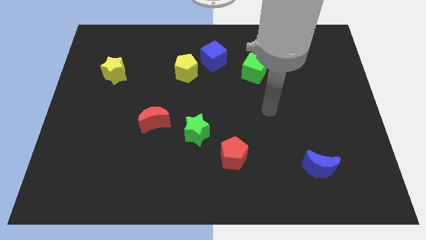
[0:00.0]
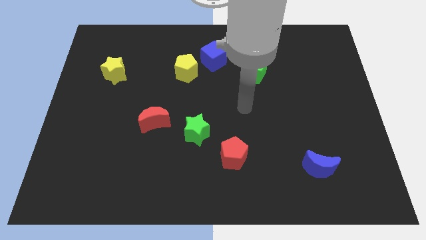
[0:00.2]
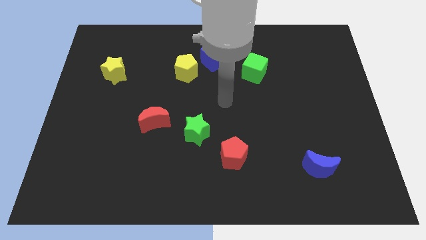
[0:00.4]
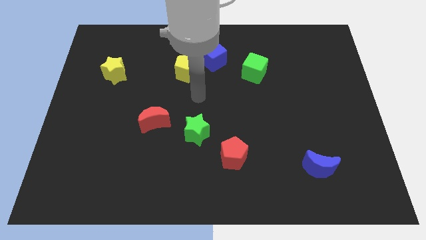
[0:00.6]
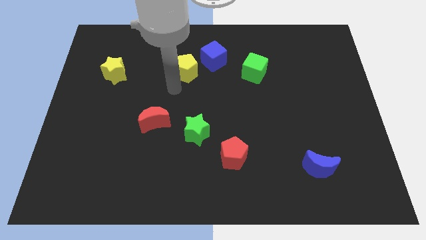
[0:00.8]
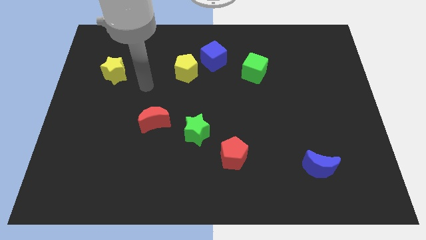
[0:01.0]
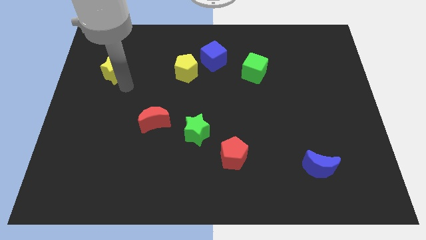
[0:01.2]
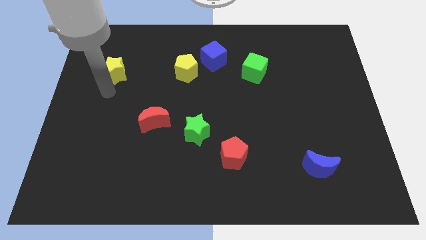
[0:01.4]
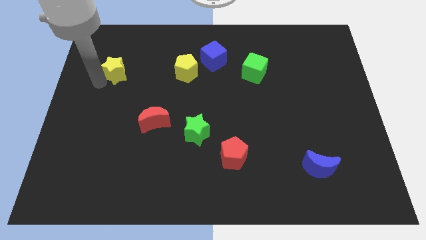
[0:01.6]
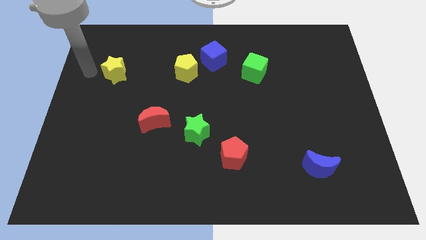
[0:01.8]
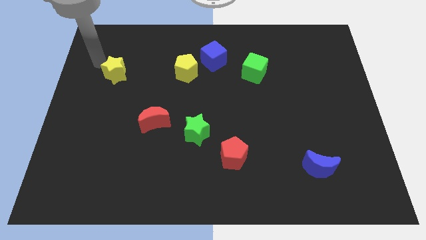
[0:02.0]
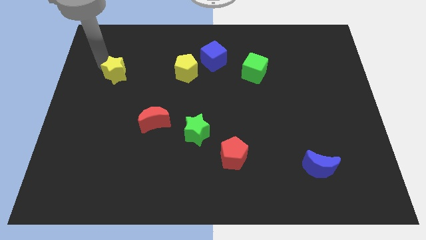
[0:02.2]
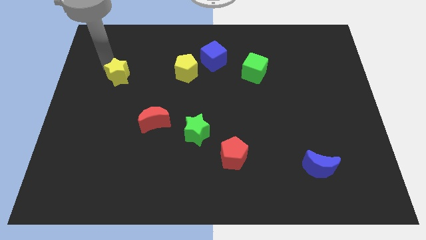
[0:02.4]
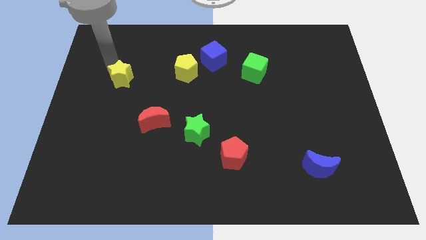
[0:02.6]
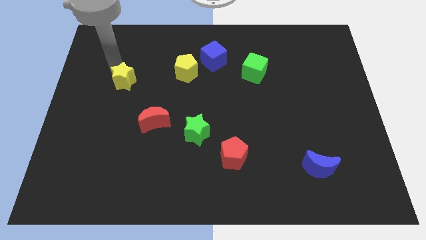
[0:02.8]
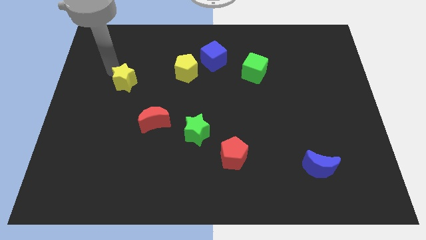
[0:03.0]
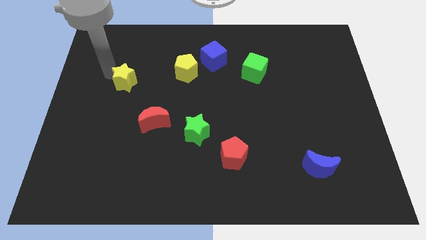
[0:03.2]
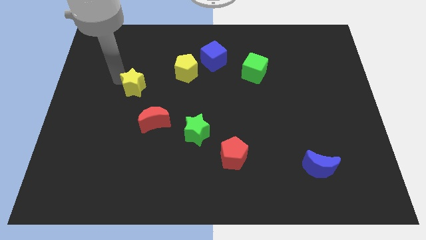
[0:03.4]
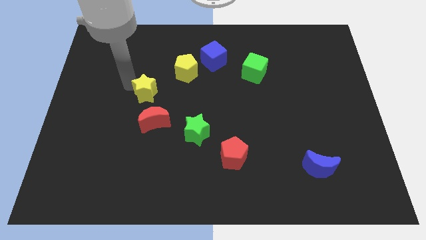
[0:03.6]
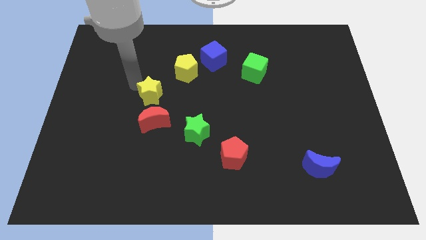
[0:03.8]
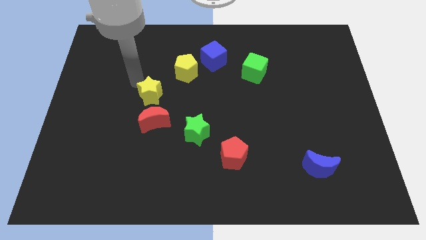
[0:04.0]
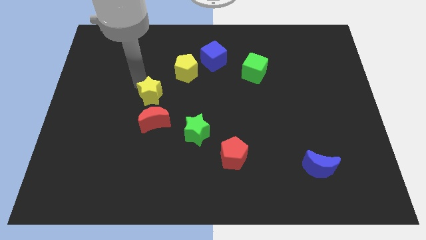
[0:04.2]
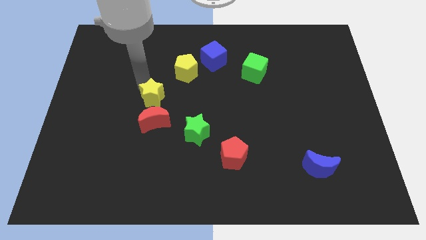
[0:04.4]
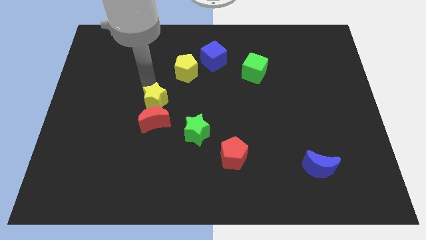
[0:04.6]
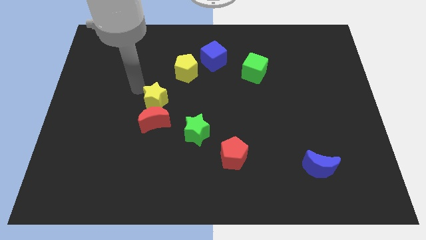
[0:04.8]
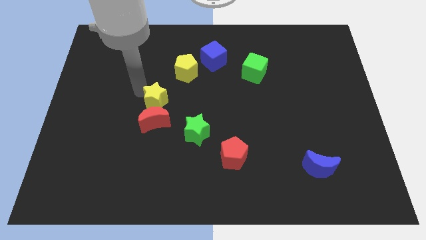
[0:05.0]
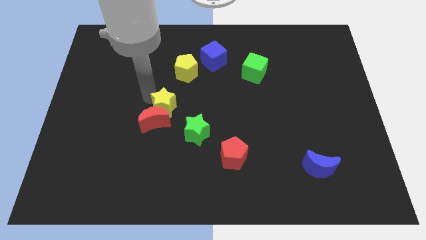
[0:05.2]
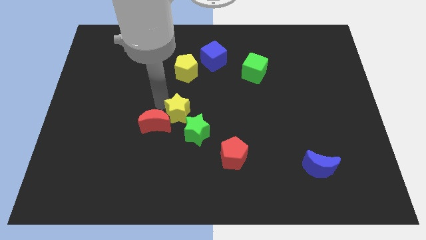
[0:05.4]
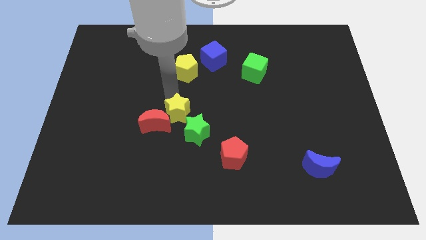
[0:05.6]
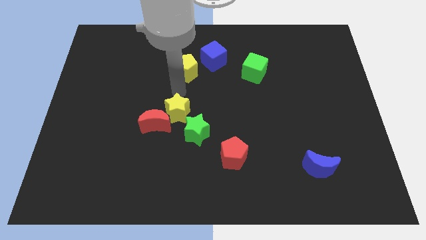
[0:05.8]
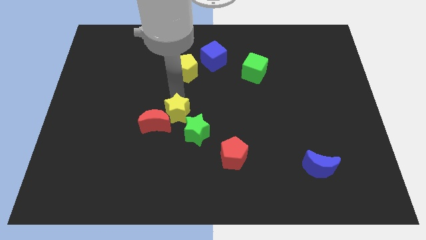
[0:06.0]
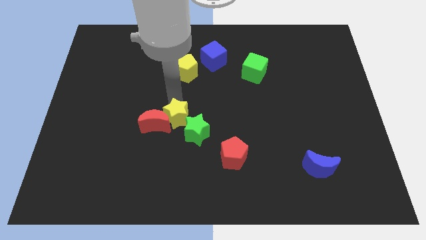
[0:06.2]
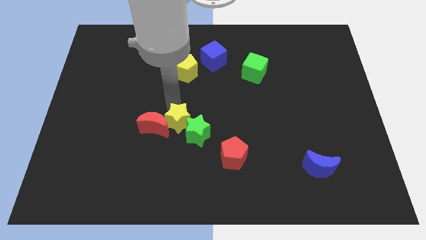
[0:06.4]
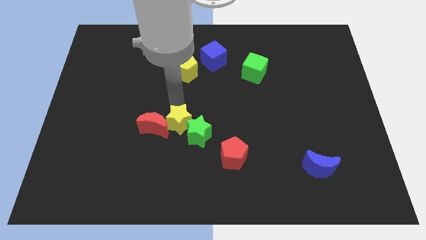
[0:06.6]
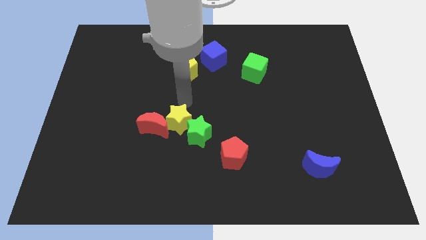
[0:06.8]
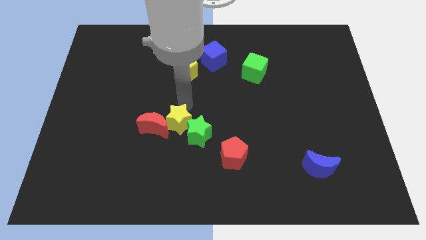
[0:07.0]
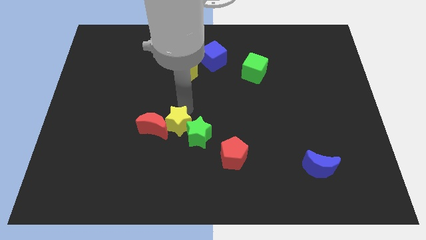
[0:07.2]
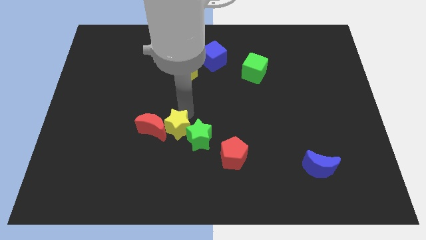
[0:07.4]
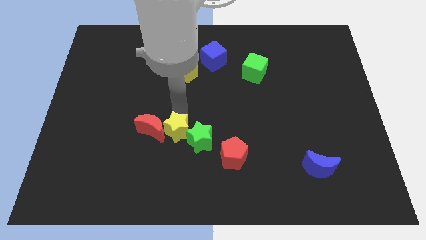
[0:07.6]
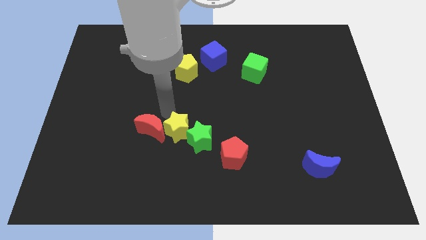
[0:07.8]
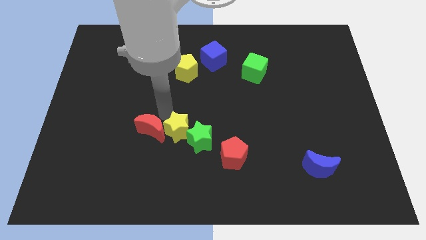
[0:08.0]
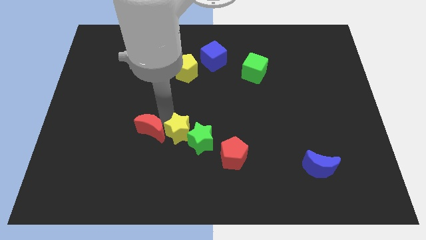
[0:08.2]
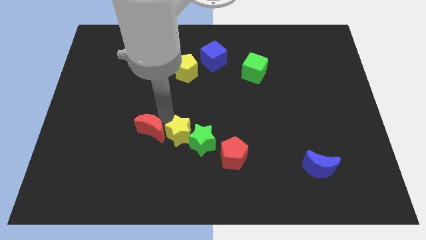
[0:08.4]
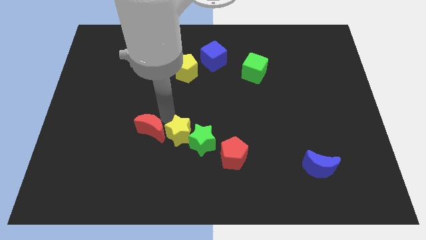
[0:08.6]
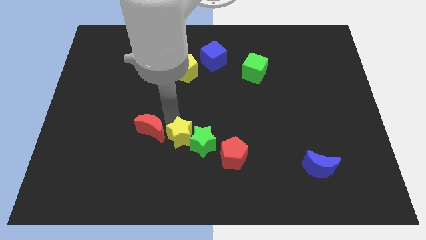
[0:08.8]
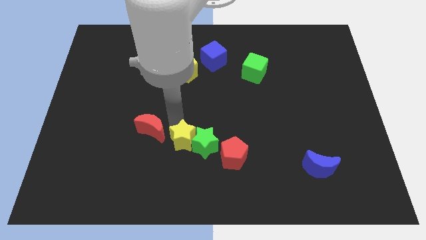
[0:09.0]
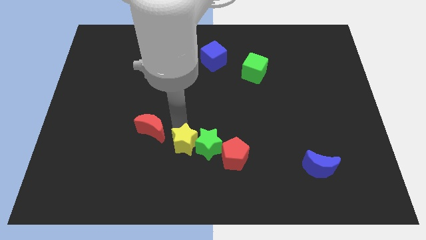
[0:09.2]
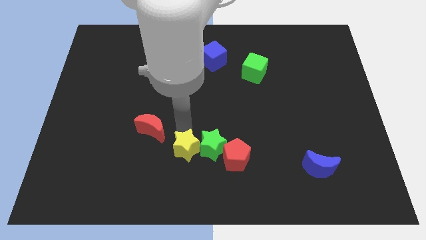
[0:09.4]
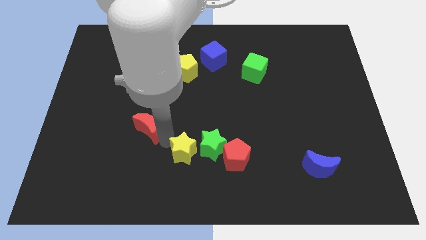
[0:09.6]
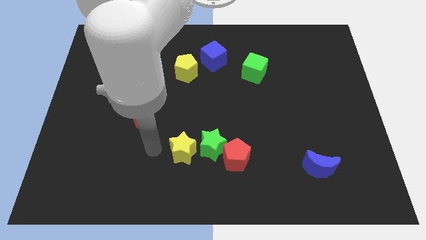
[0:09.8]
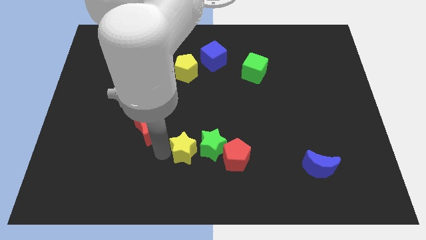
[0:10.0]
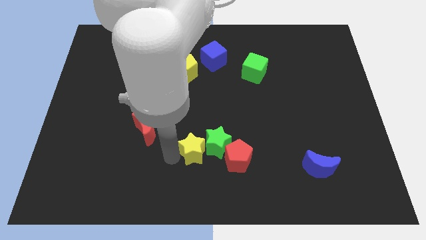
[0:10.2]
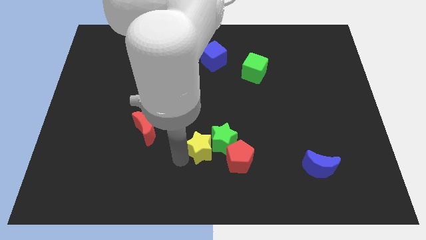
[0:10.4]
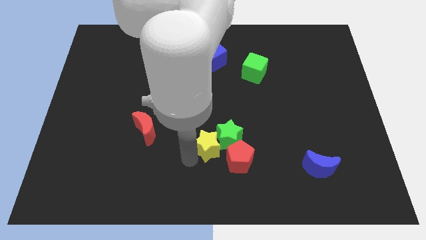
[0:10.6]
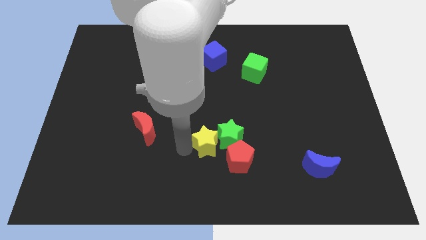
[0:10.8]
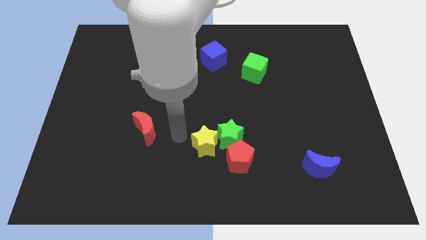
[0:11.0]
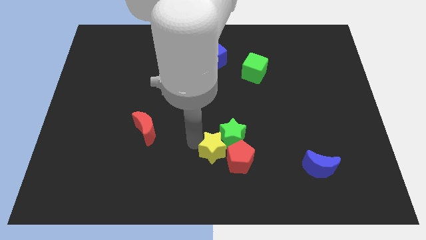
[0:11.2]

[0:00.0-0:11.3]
put the yellow star close to the red pentagon

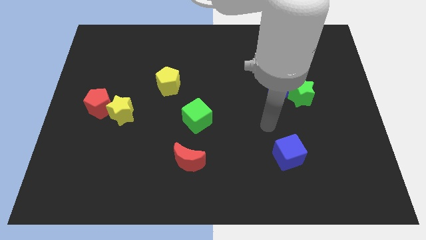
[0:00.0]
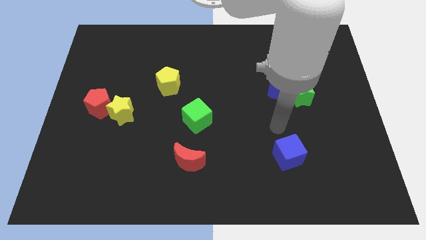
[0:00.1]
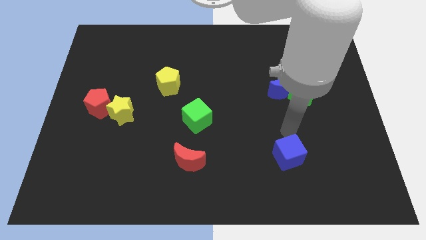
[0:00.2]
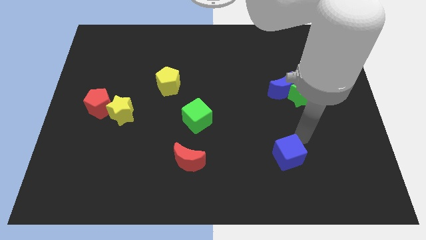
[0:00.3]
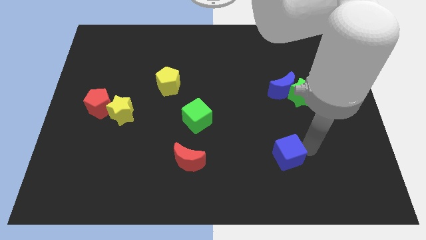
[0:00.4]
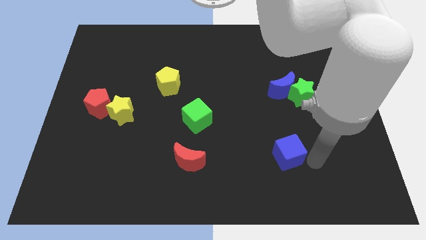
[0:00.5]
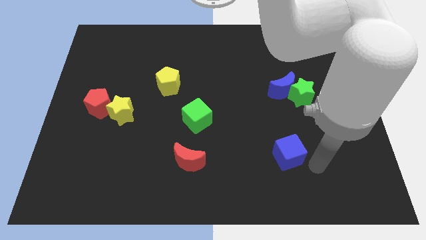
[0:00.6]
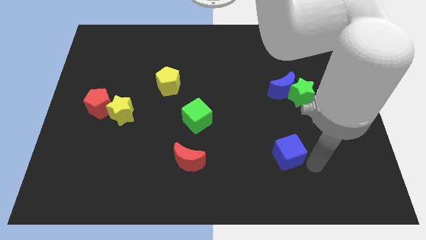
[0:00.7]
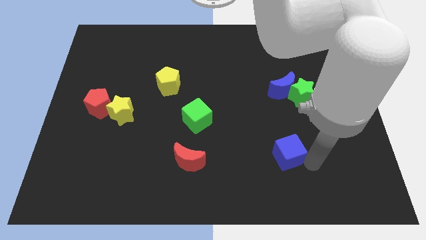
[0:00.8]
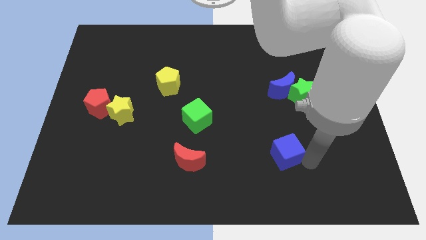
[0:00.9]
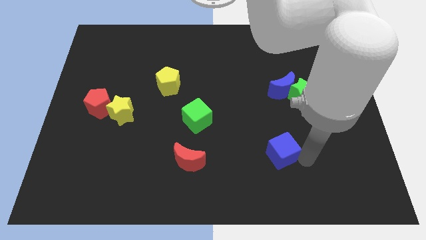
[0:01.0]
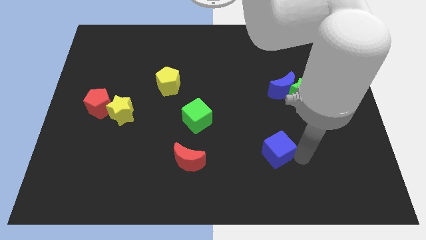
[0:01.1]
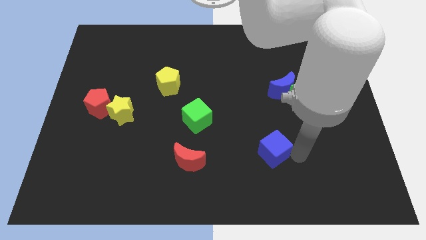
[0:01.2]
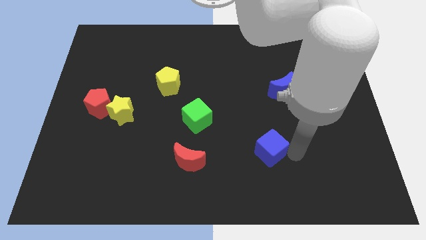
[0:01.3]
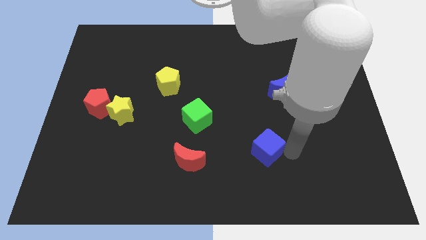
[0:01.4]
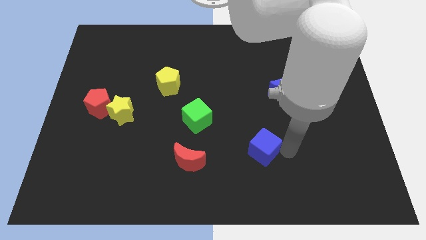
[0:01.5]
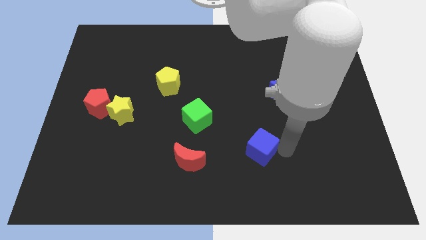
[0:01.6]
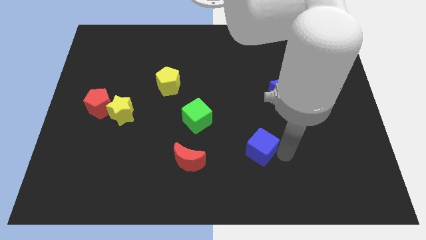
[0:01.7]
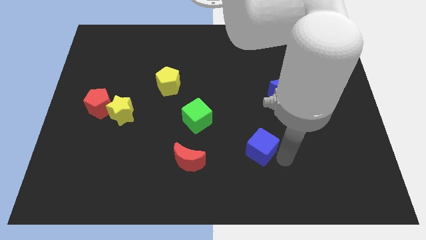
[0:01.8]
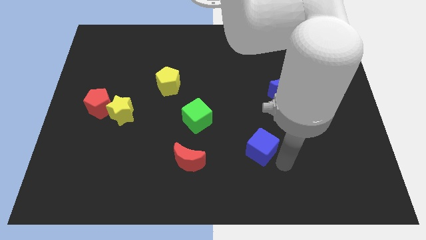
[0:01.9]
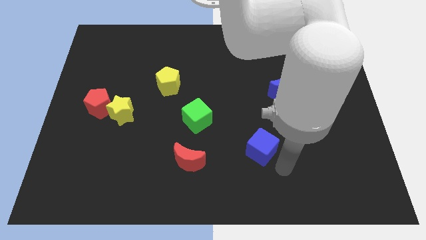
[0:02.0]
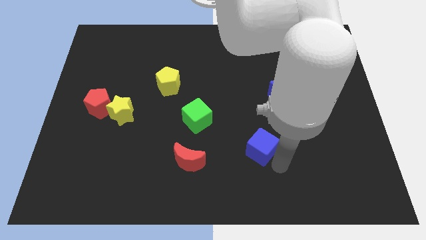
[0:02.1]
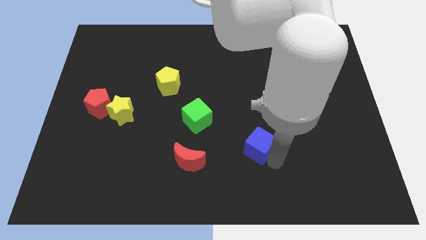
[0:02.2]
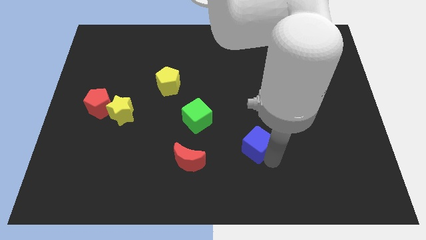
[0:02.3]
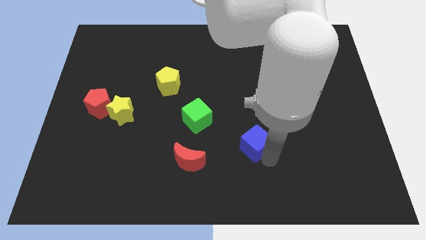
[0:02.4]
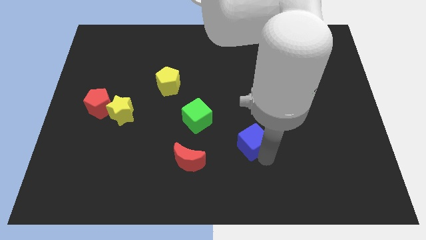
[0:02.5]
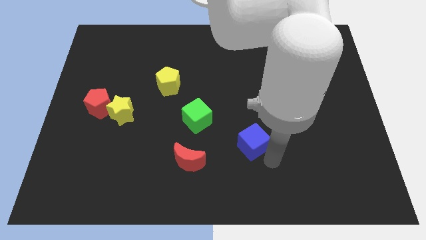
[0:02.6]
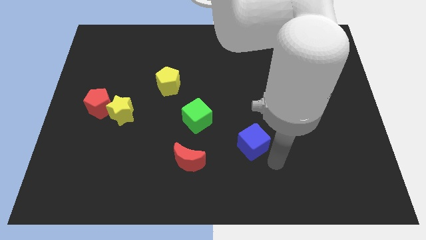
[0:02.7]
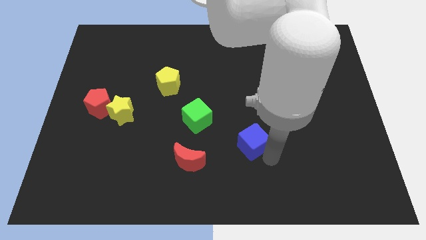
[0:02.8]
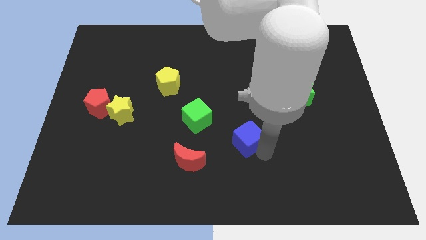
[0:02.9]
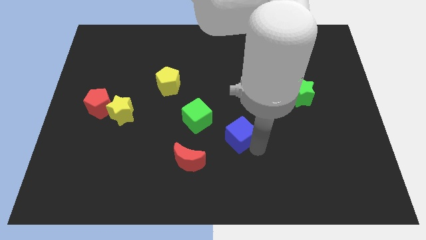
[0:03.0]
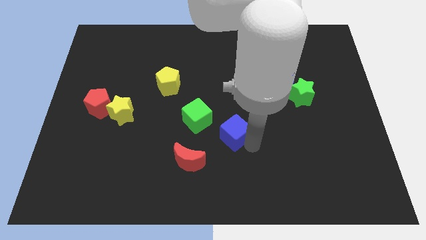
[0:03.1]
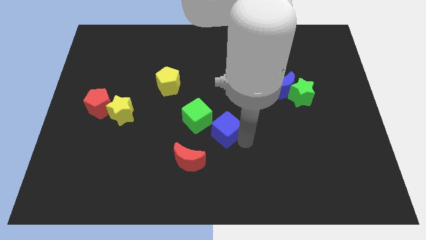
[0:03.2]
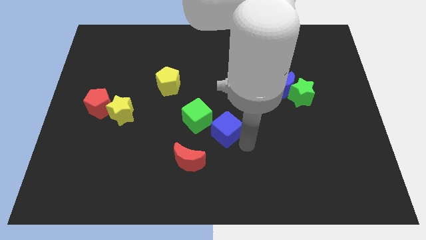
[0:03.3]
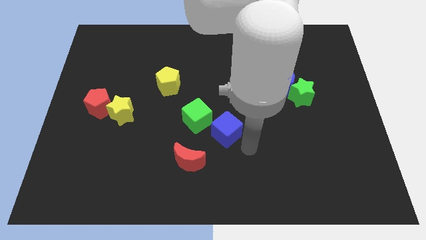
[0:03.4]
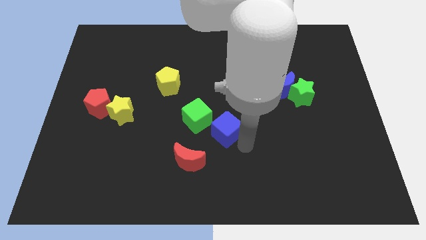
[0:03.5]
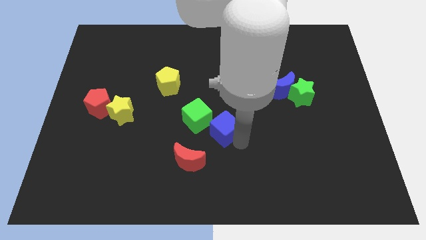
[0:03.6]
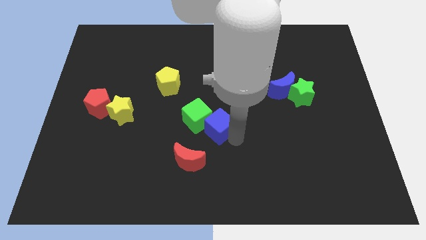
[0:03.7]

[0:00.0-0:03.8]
move the blue cube next to the green cube
